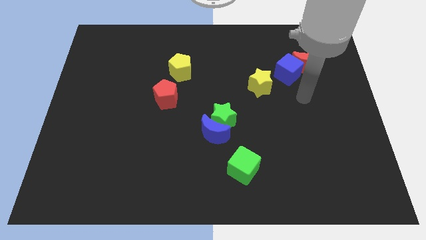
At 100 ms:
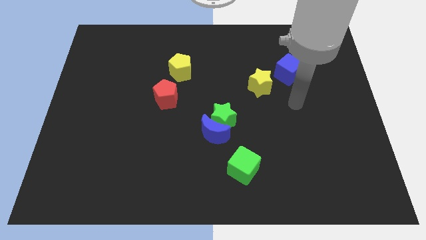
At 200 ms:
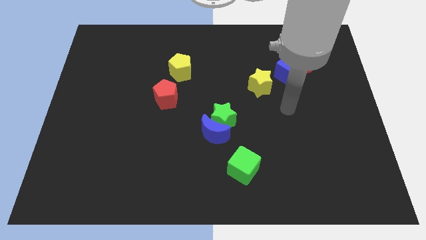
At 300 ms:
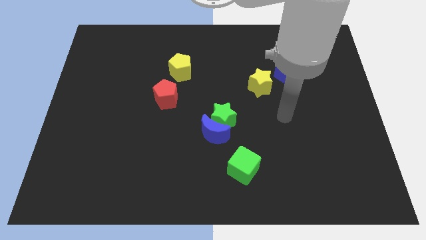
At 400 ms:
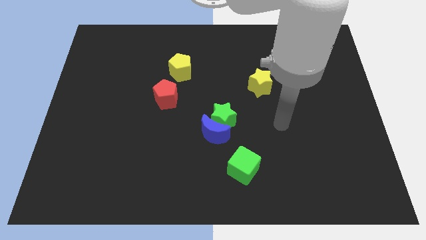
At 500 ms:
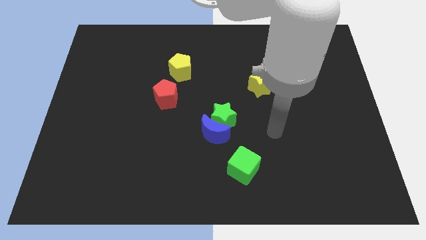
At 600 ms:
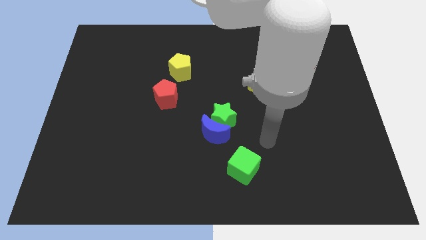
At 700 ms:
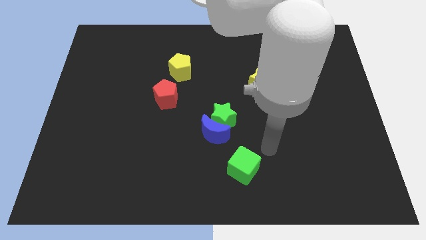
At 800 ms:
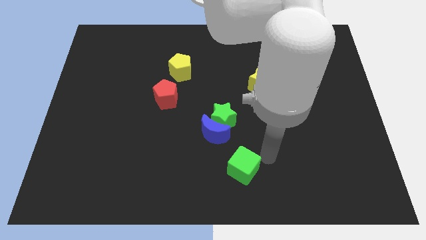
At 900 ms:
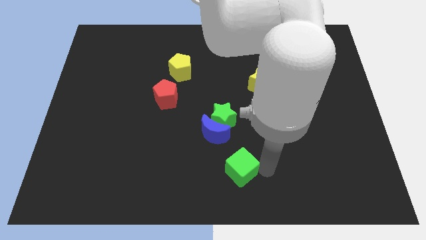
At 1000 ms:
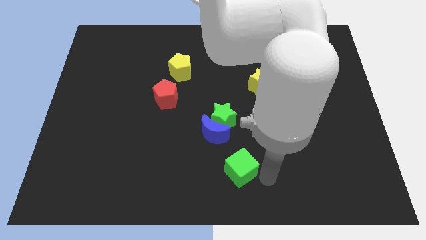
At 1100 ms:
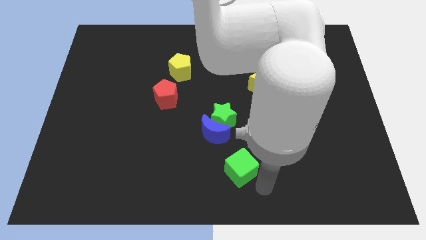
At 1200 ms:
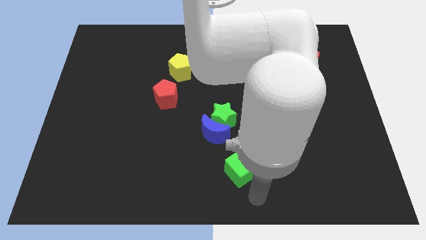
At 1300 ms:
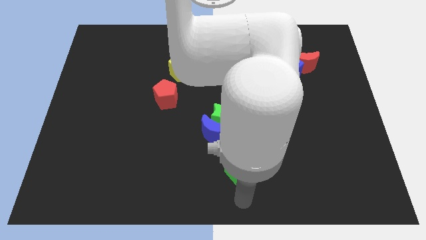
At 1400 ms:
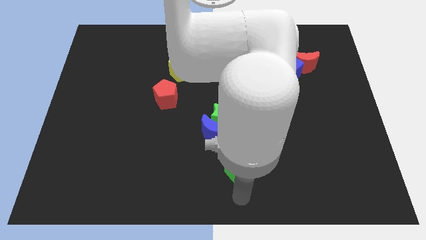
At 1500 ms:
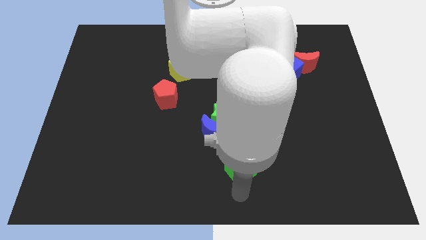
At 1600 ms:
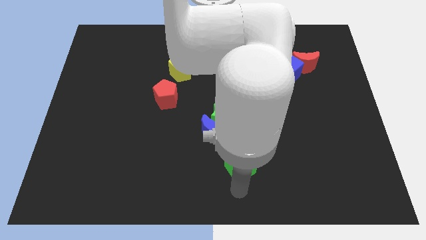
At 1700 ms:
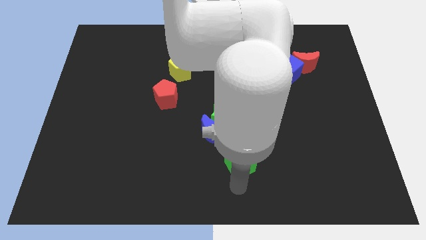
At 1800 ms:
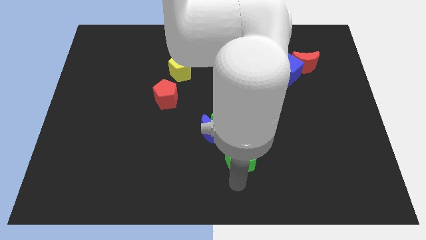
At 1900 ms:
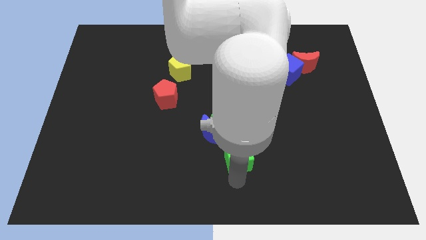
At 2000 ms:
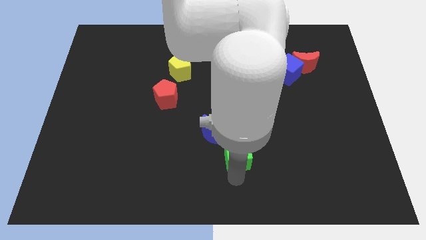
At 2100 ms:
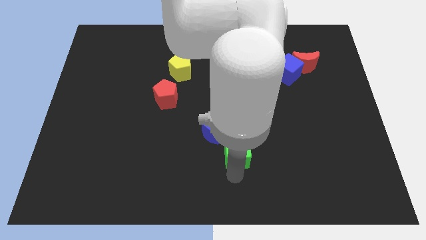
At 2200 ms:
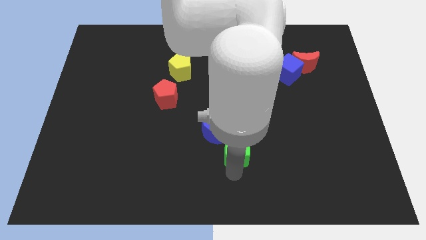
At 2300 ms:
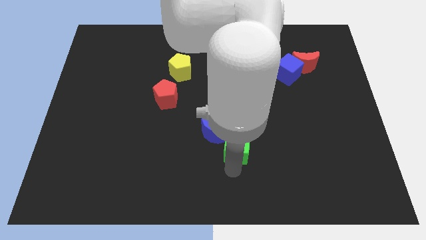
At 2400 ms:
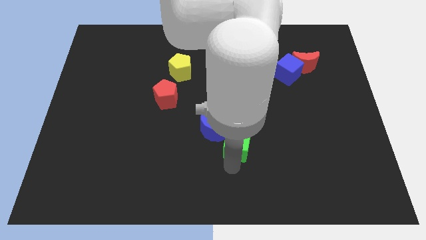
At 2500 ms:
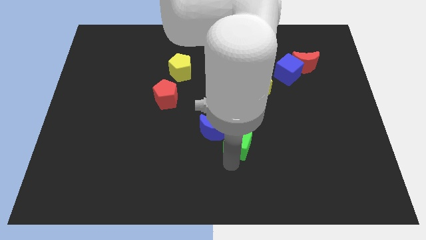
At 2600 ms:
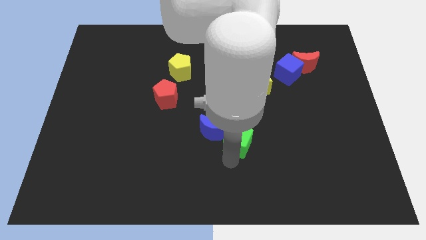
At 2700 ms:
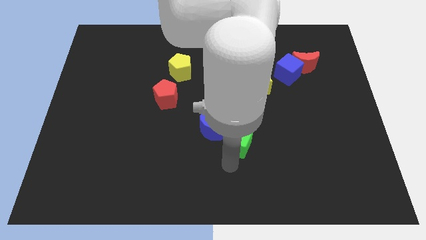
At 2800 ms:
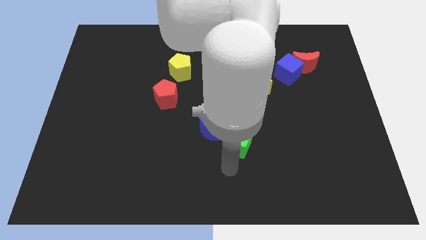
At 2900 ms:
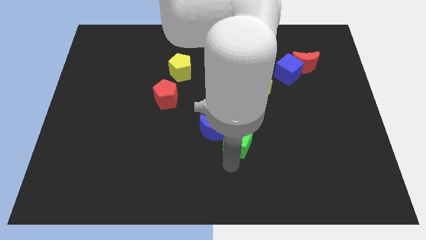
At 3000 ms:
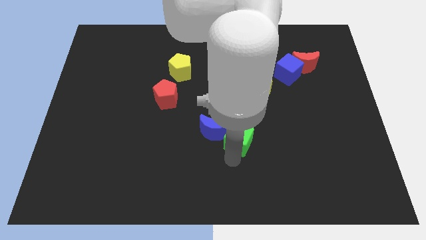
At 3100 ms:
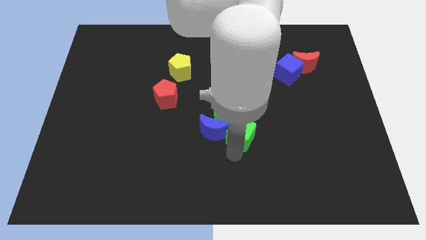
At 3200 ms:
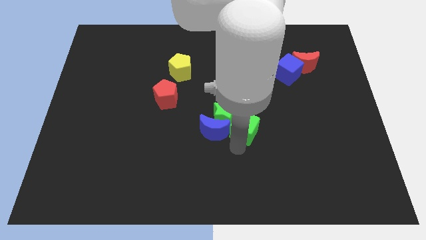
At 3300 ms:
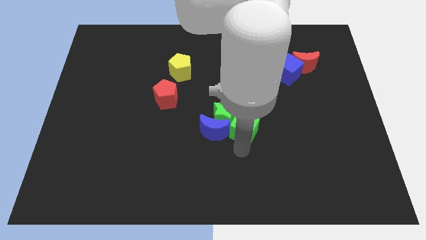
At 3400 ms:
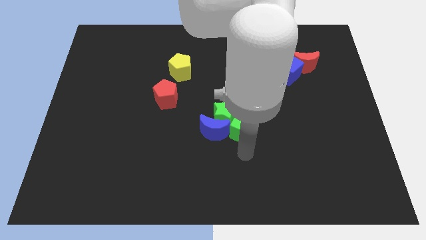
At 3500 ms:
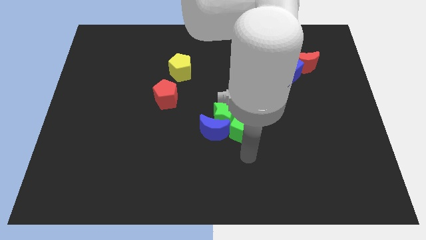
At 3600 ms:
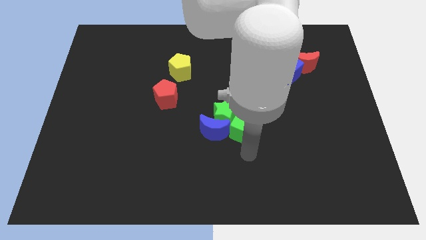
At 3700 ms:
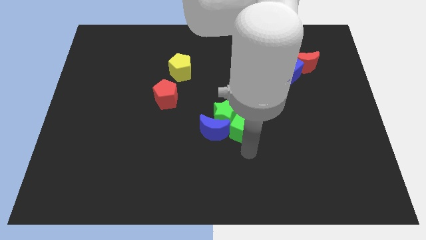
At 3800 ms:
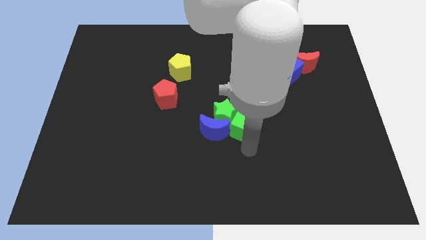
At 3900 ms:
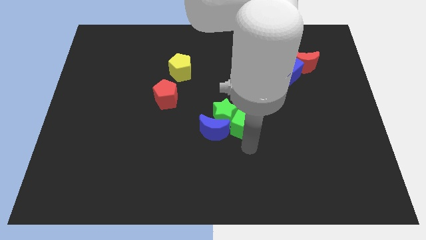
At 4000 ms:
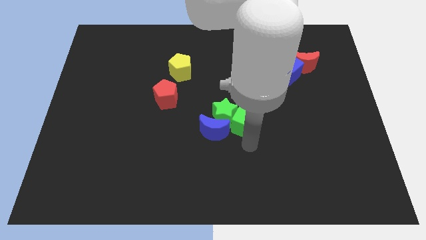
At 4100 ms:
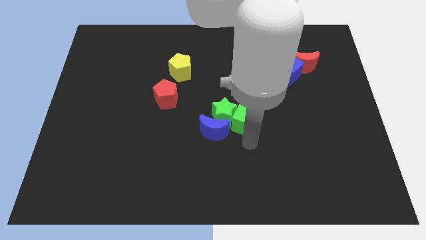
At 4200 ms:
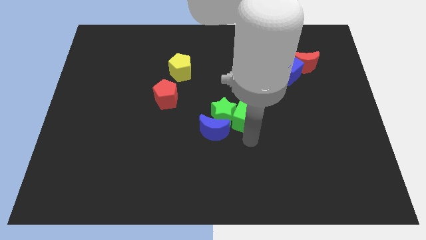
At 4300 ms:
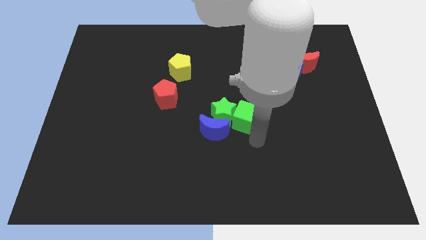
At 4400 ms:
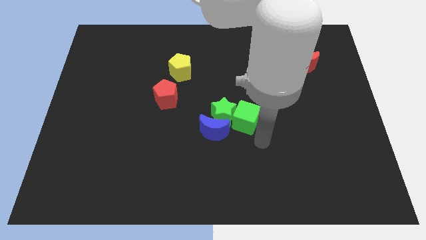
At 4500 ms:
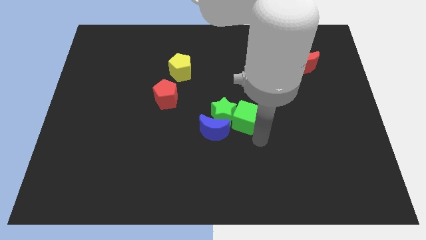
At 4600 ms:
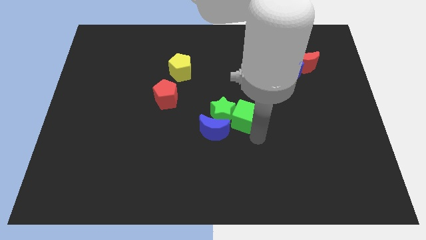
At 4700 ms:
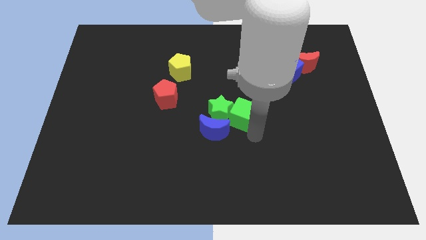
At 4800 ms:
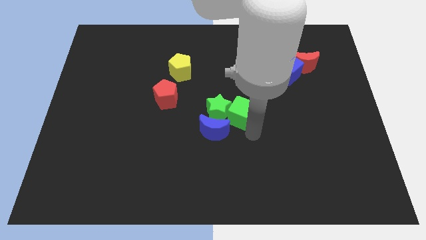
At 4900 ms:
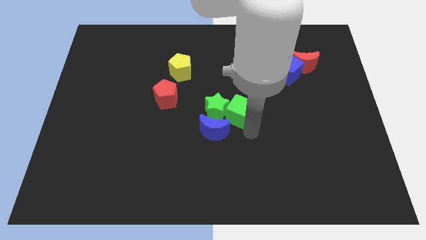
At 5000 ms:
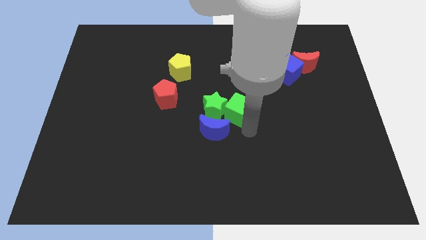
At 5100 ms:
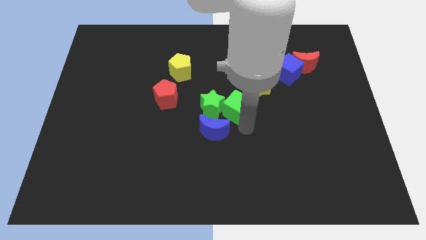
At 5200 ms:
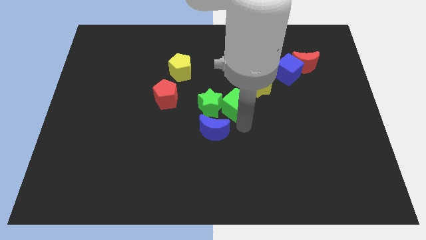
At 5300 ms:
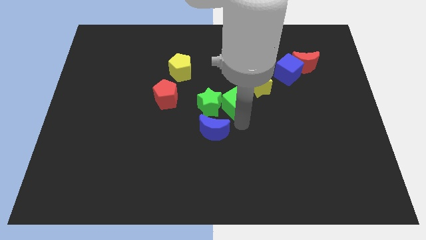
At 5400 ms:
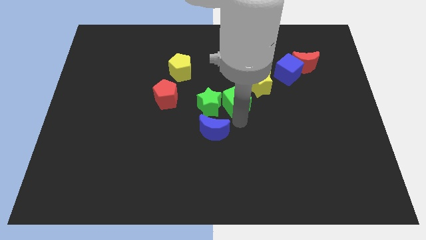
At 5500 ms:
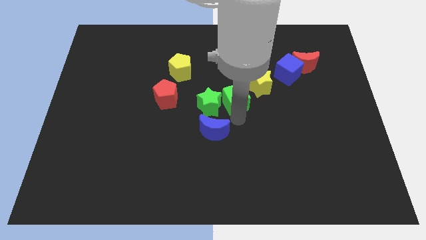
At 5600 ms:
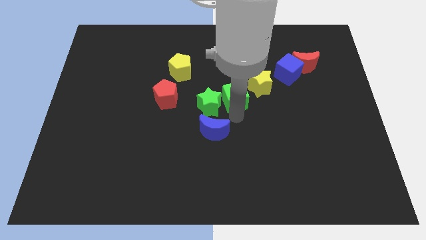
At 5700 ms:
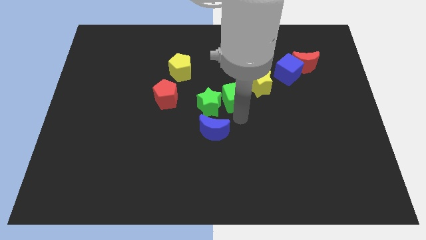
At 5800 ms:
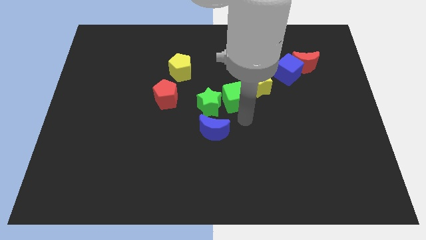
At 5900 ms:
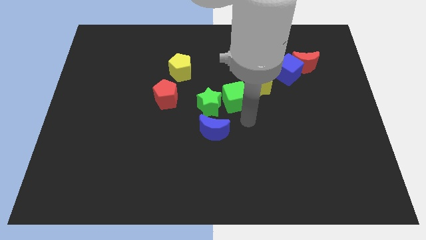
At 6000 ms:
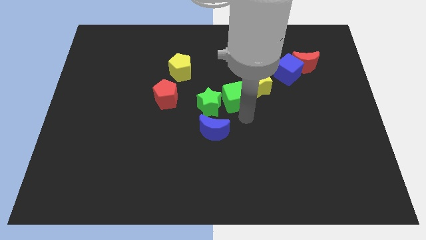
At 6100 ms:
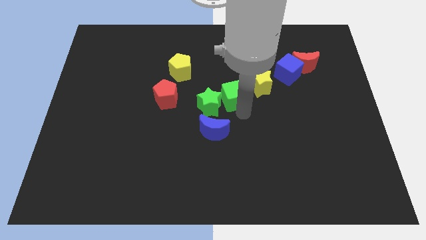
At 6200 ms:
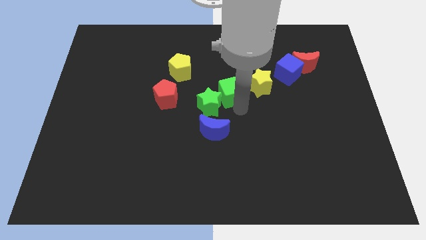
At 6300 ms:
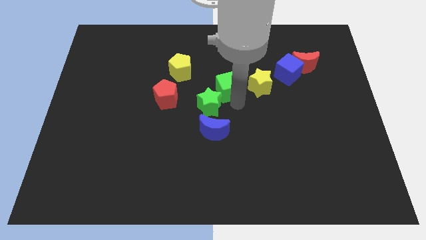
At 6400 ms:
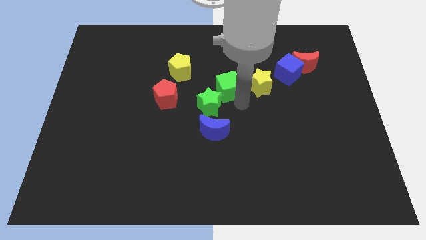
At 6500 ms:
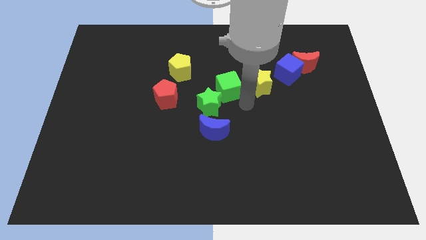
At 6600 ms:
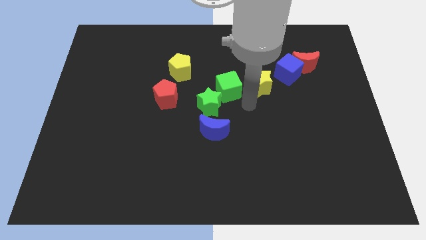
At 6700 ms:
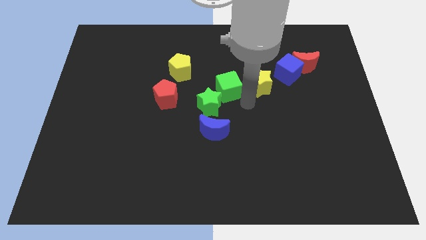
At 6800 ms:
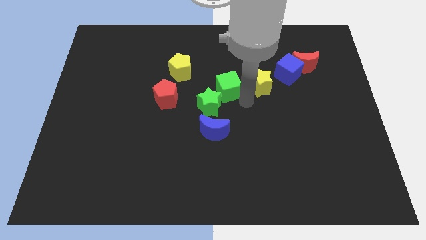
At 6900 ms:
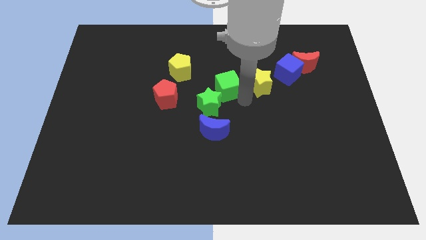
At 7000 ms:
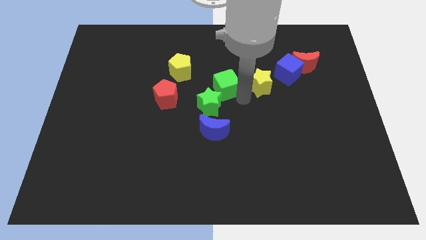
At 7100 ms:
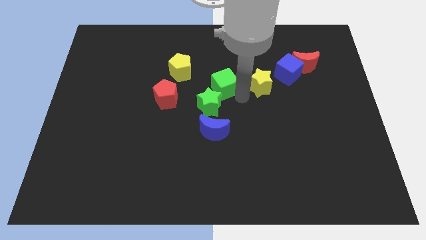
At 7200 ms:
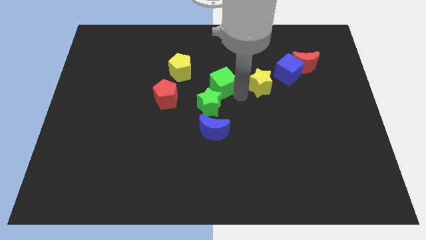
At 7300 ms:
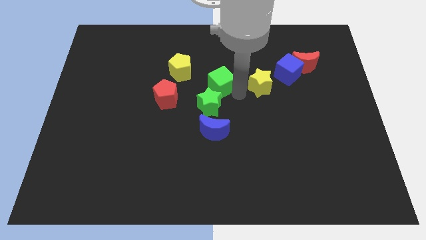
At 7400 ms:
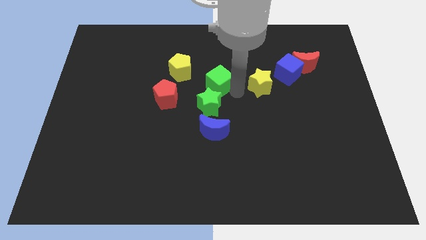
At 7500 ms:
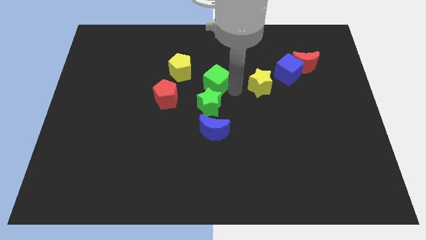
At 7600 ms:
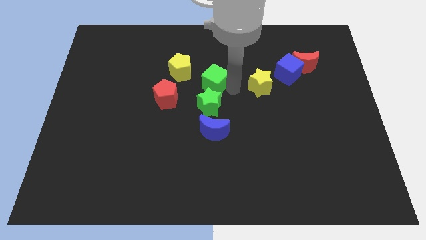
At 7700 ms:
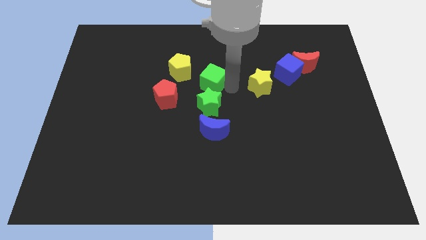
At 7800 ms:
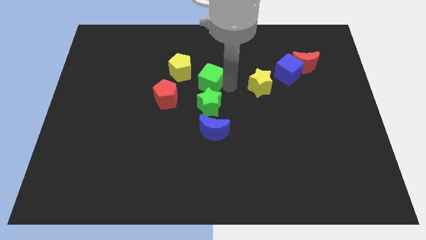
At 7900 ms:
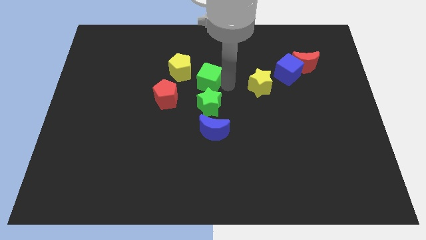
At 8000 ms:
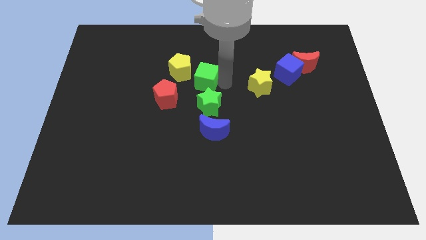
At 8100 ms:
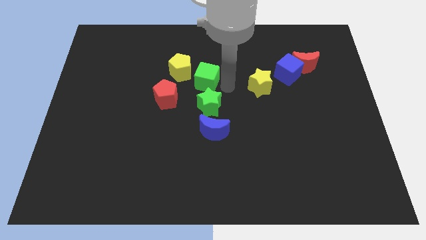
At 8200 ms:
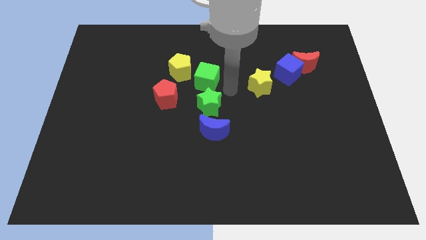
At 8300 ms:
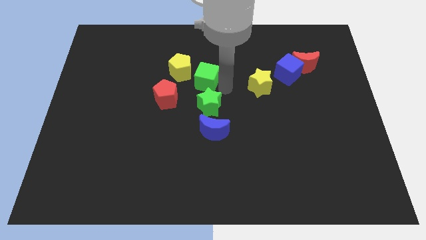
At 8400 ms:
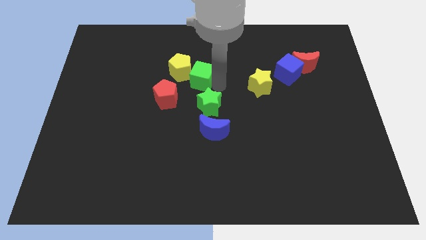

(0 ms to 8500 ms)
put the green cube next to the yellow pentagon
